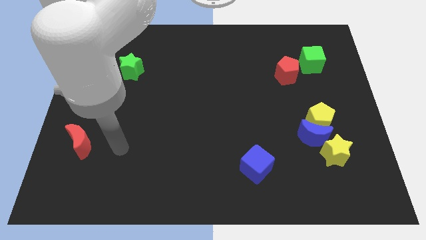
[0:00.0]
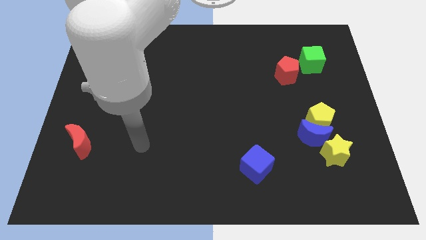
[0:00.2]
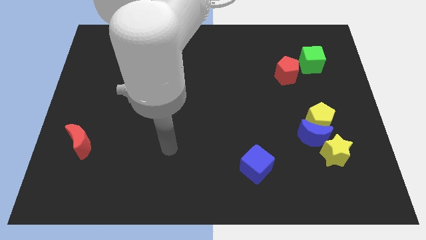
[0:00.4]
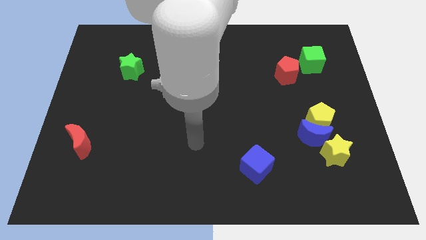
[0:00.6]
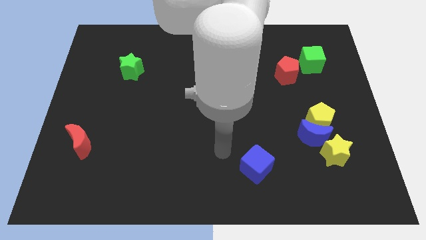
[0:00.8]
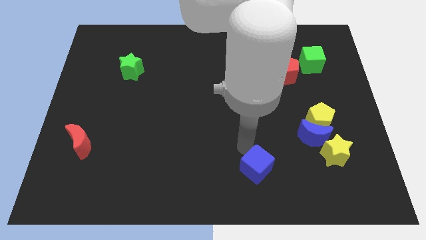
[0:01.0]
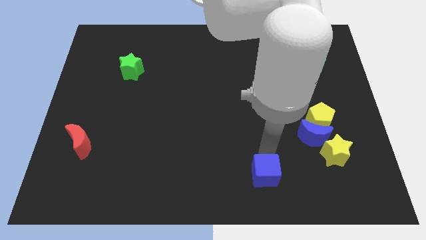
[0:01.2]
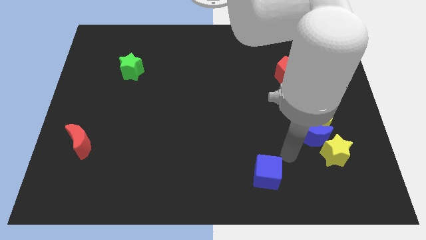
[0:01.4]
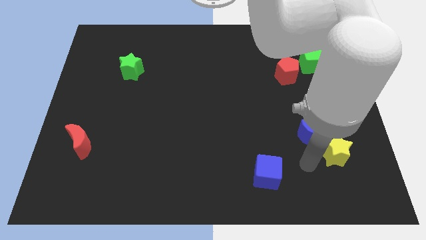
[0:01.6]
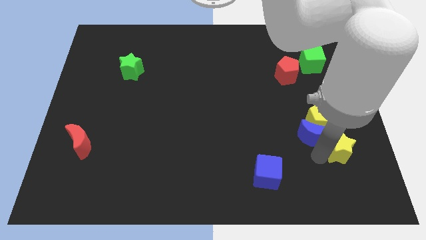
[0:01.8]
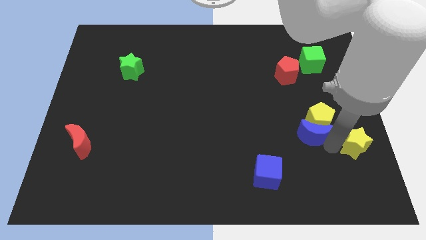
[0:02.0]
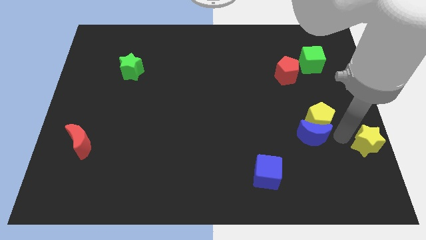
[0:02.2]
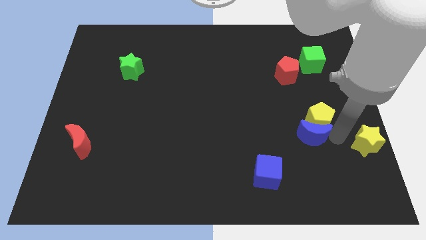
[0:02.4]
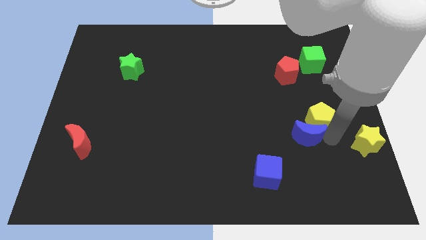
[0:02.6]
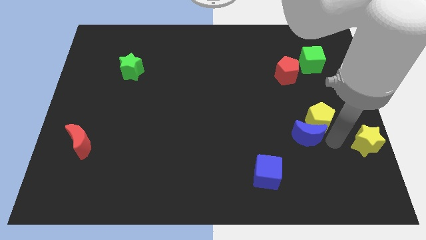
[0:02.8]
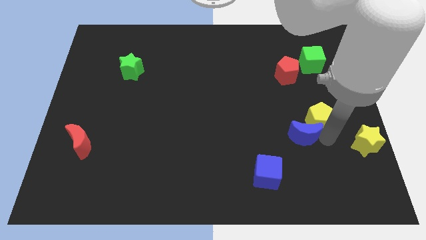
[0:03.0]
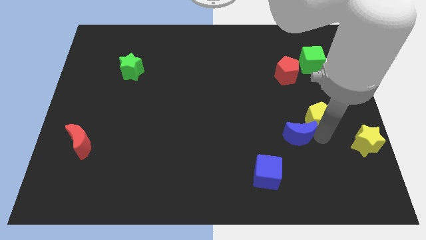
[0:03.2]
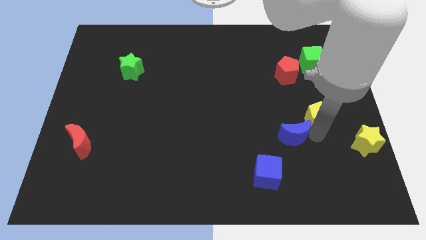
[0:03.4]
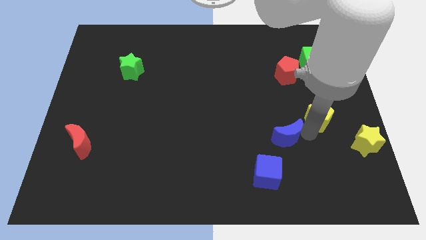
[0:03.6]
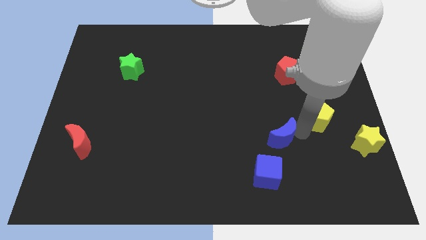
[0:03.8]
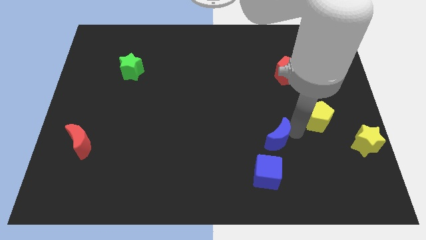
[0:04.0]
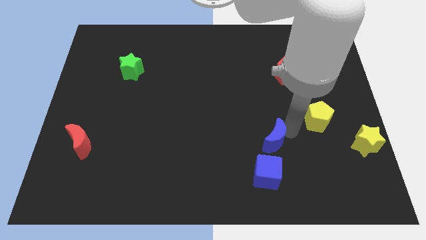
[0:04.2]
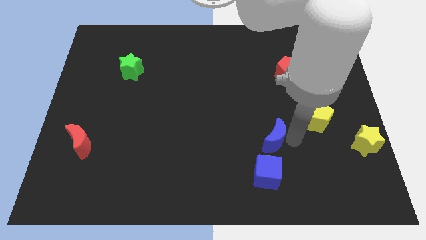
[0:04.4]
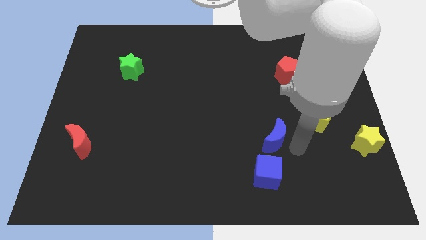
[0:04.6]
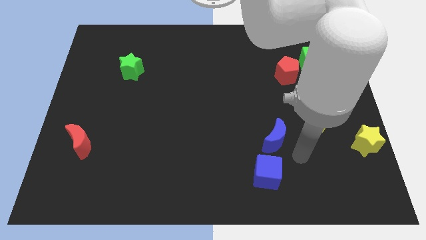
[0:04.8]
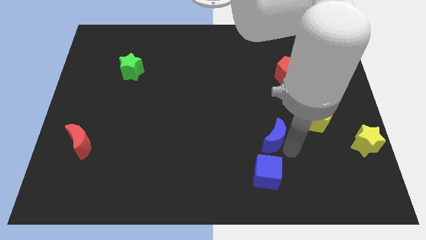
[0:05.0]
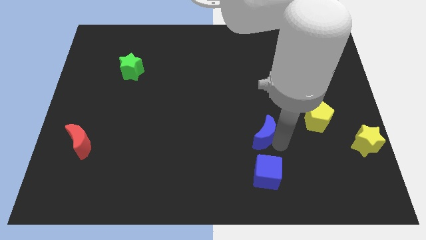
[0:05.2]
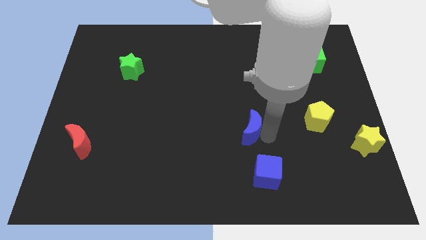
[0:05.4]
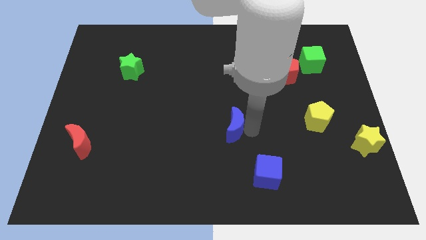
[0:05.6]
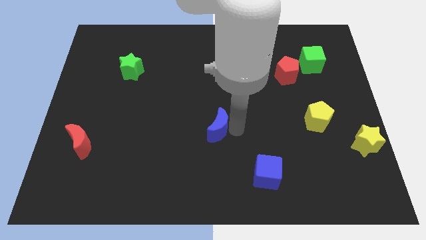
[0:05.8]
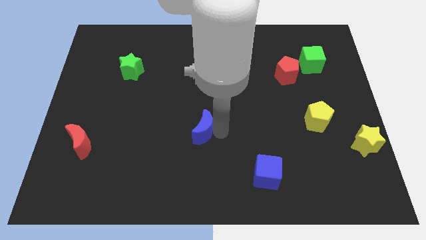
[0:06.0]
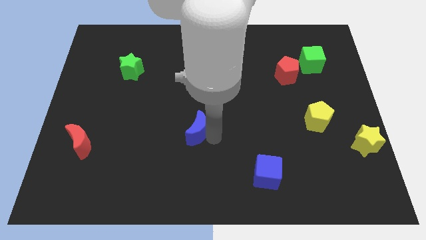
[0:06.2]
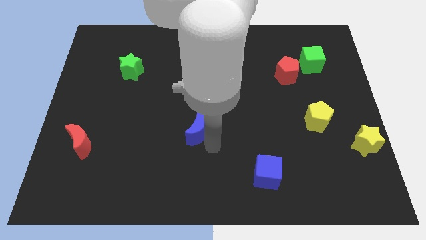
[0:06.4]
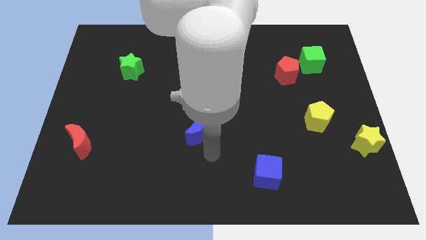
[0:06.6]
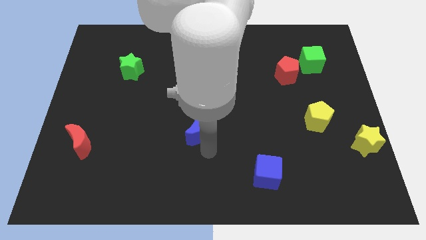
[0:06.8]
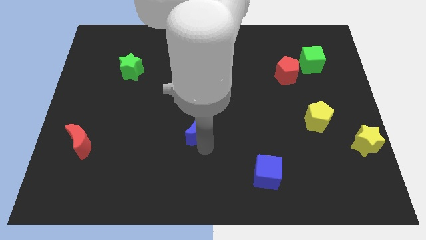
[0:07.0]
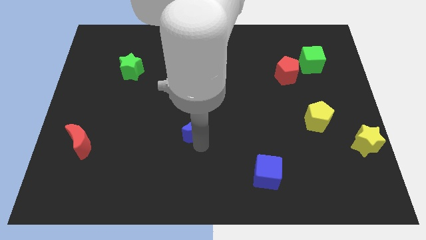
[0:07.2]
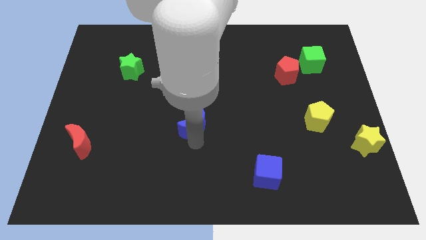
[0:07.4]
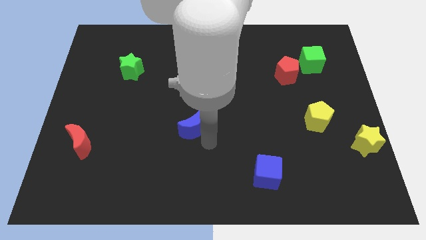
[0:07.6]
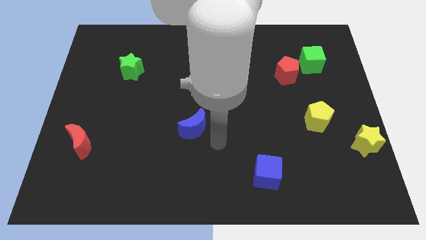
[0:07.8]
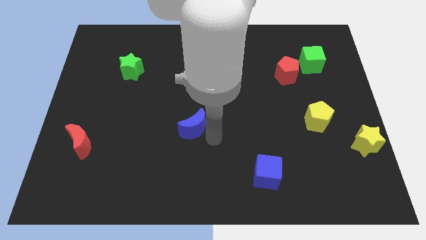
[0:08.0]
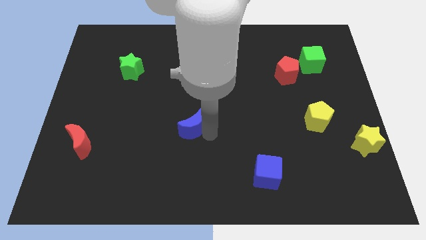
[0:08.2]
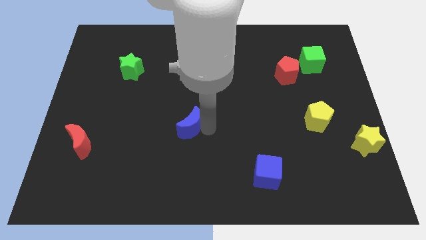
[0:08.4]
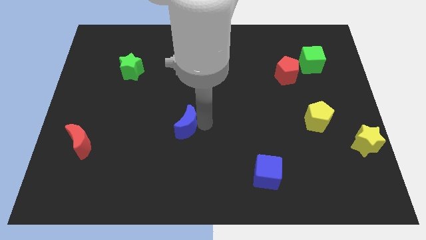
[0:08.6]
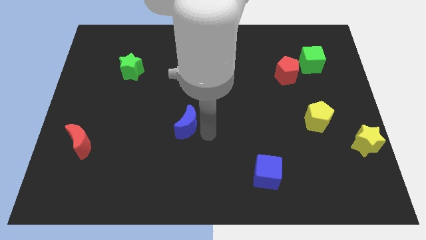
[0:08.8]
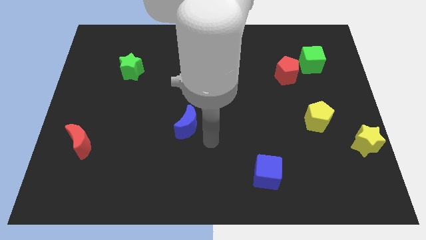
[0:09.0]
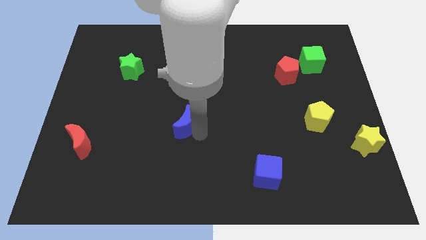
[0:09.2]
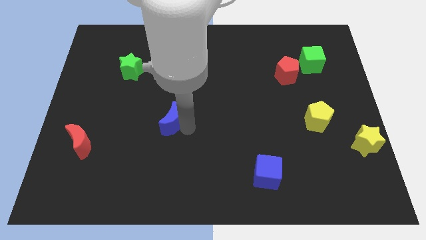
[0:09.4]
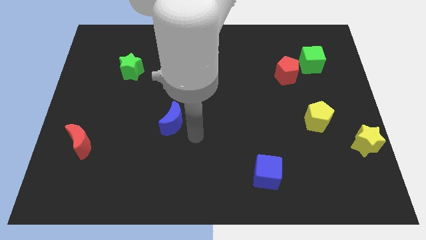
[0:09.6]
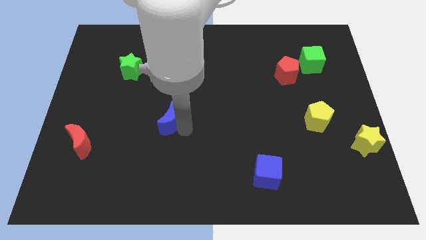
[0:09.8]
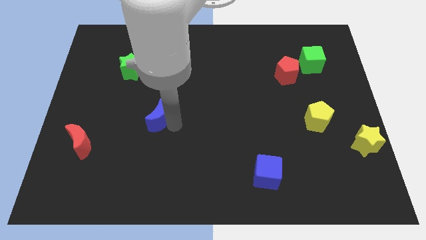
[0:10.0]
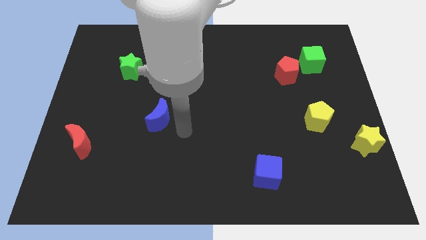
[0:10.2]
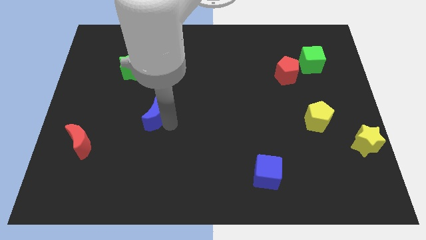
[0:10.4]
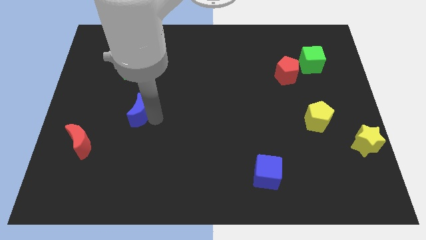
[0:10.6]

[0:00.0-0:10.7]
push the blue moon to the bottom side of the green star

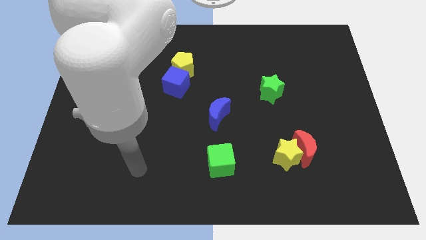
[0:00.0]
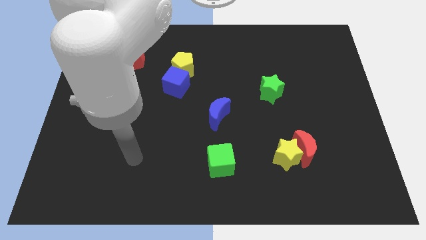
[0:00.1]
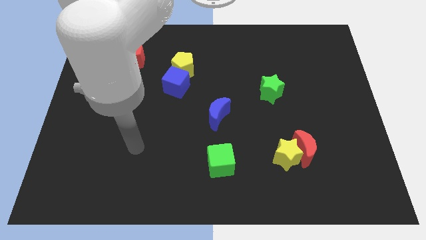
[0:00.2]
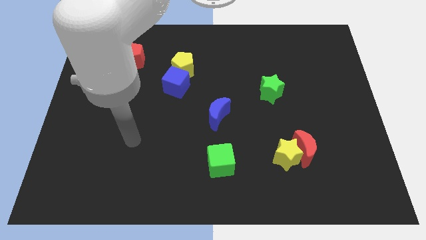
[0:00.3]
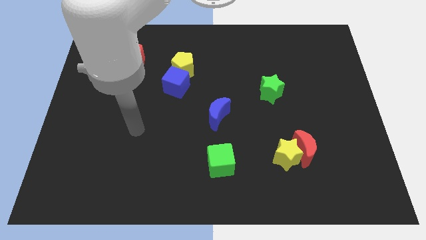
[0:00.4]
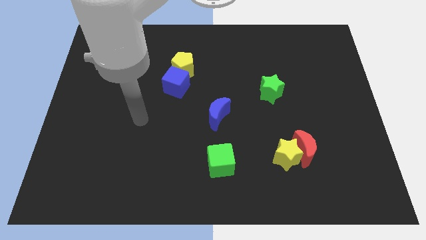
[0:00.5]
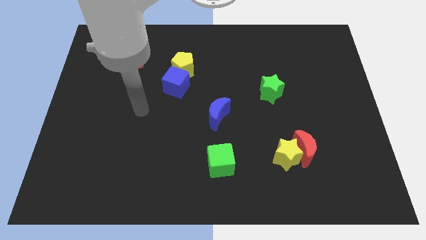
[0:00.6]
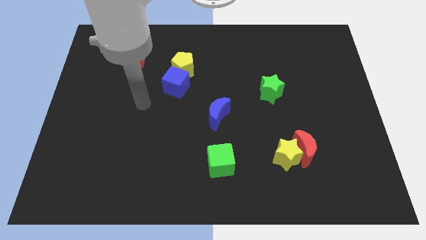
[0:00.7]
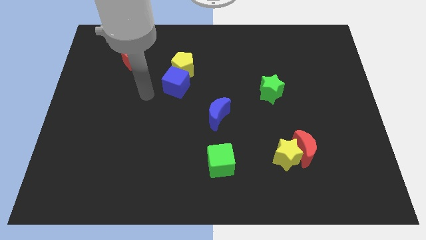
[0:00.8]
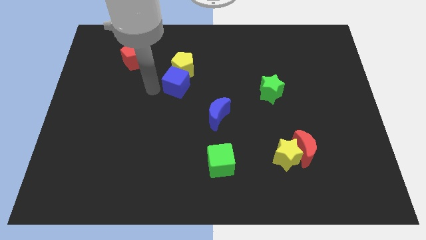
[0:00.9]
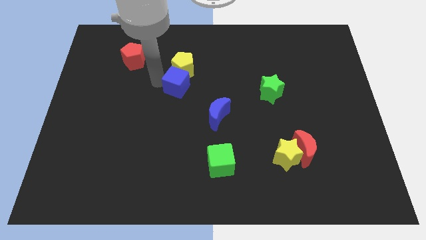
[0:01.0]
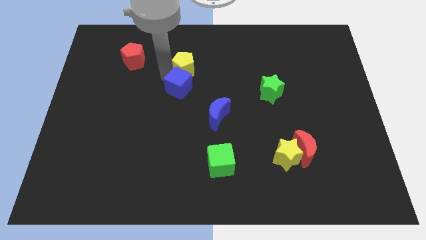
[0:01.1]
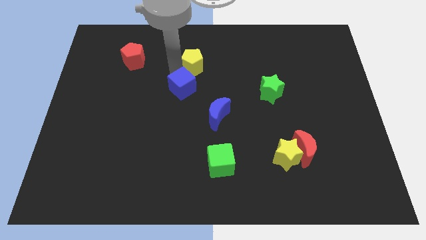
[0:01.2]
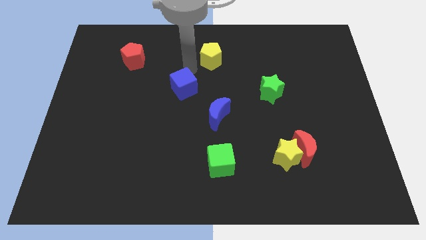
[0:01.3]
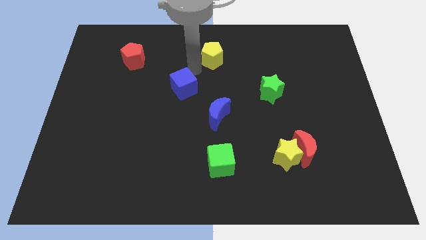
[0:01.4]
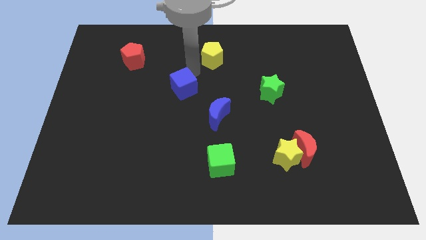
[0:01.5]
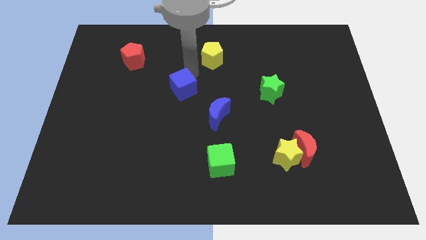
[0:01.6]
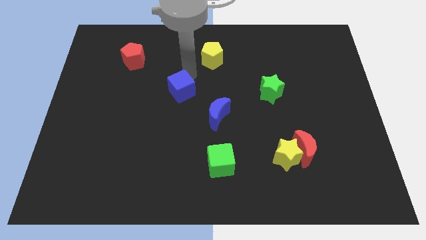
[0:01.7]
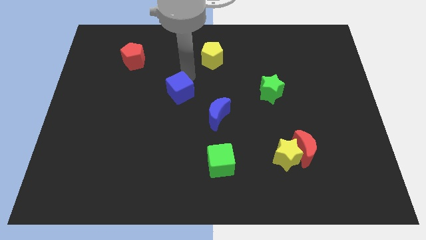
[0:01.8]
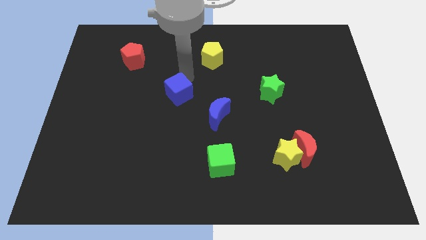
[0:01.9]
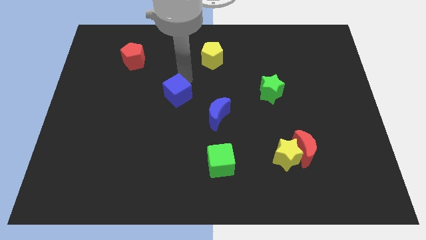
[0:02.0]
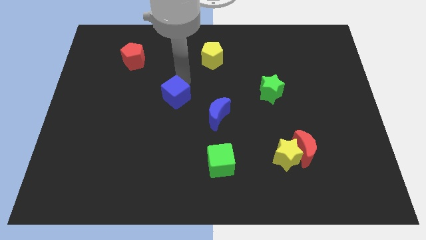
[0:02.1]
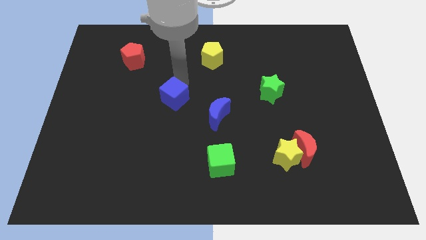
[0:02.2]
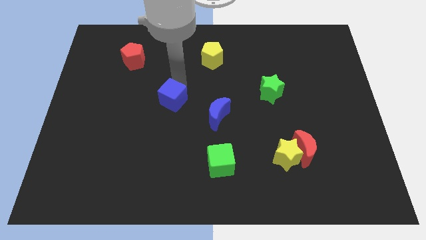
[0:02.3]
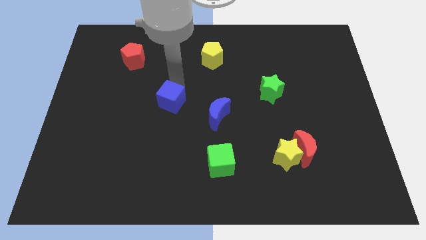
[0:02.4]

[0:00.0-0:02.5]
put the blue cube left of the blue moon
